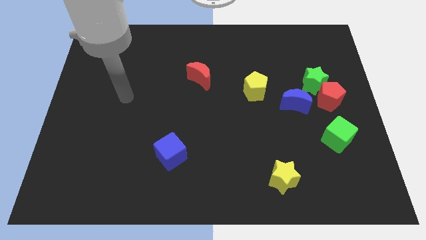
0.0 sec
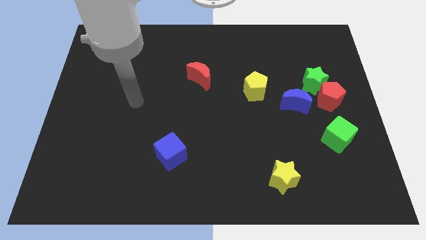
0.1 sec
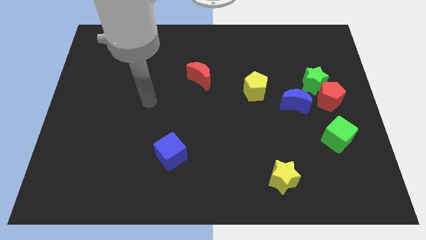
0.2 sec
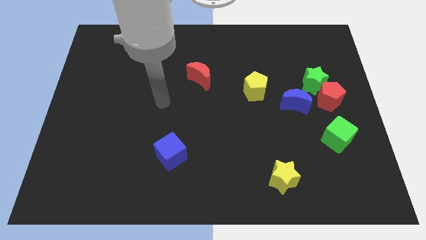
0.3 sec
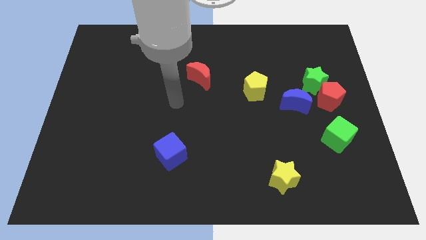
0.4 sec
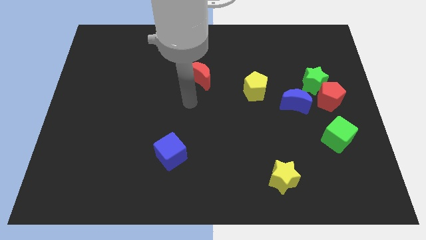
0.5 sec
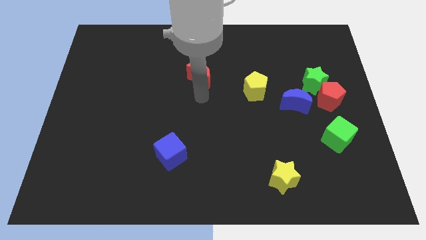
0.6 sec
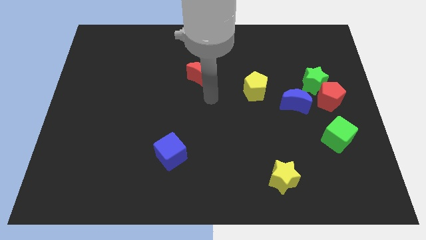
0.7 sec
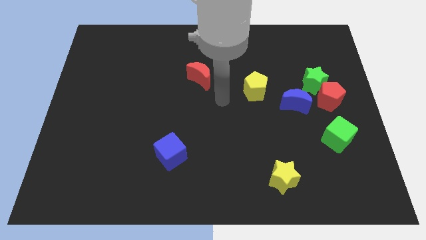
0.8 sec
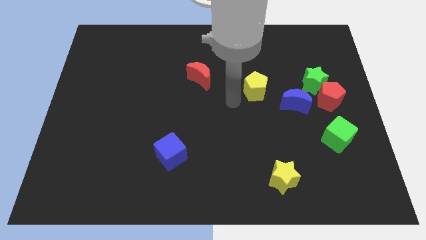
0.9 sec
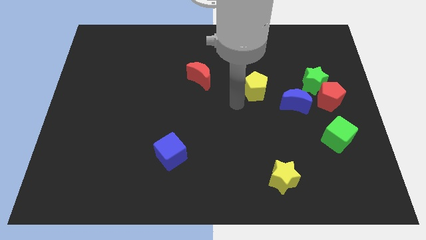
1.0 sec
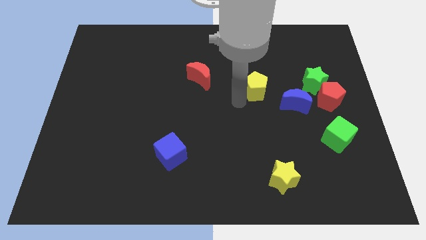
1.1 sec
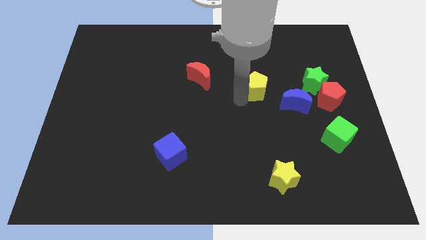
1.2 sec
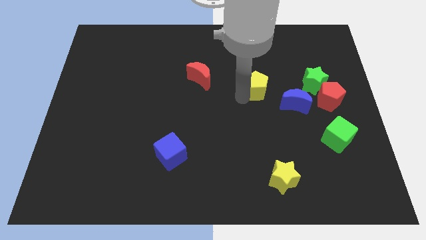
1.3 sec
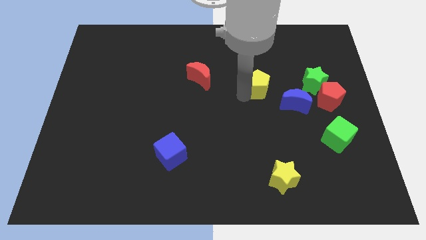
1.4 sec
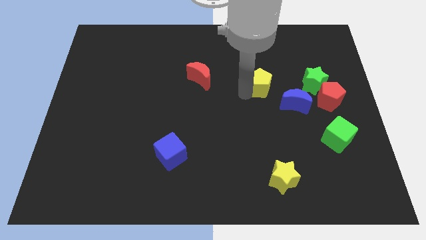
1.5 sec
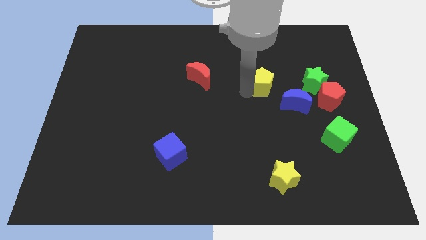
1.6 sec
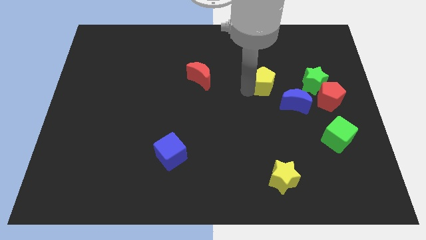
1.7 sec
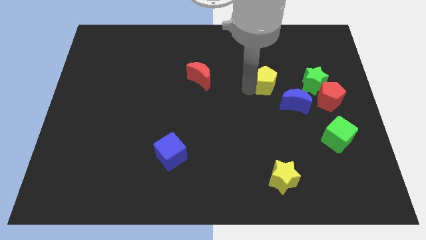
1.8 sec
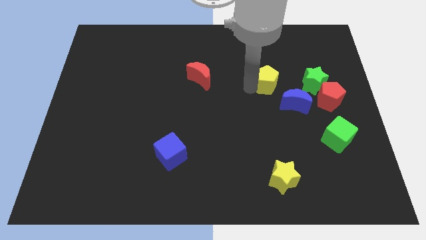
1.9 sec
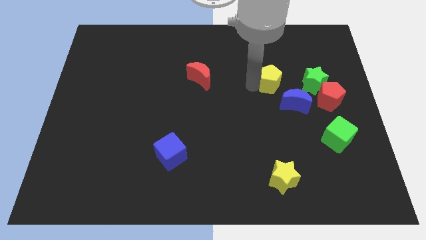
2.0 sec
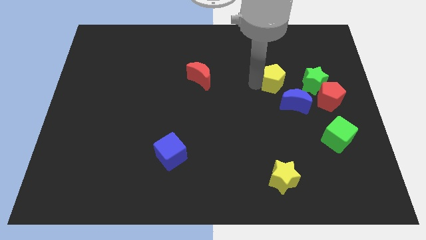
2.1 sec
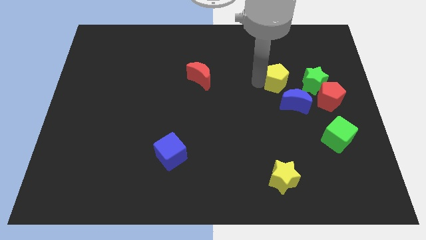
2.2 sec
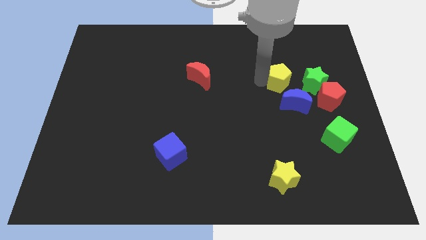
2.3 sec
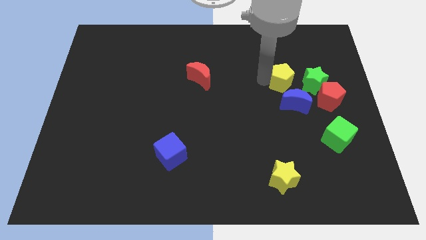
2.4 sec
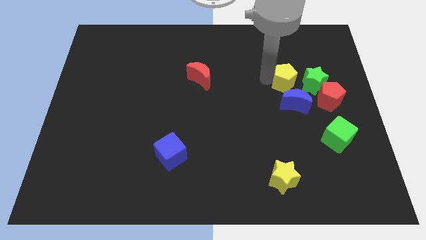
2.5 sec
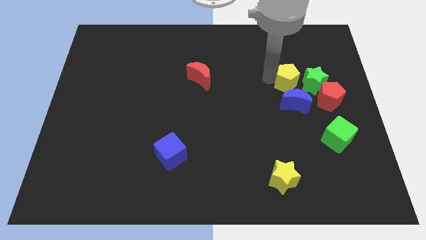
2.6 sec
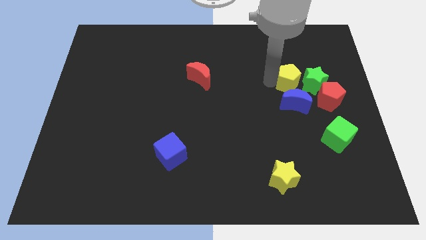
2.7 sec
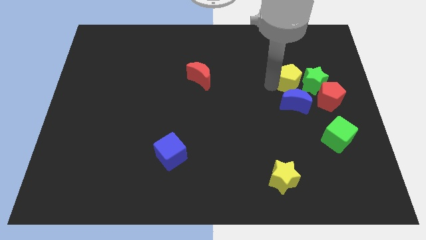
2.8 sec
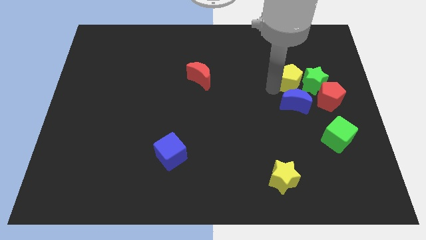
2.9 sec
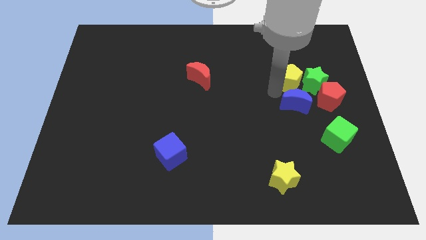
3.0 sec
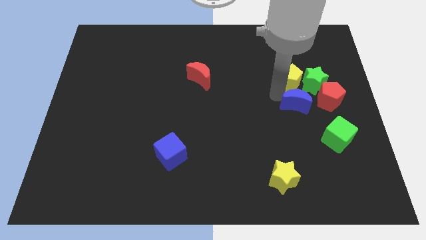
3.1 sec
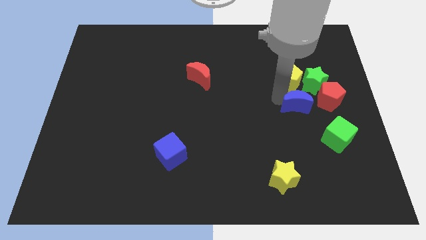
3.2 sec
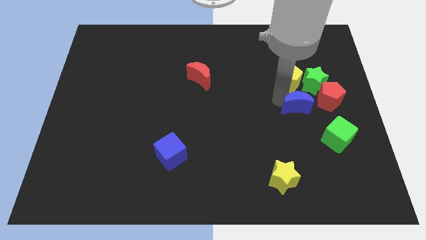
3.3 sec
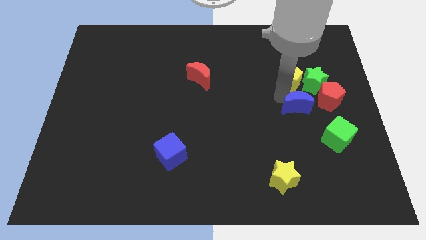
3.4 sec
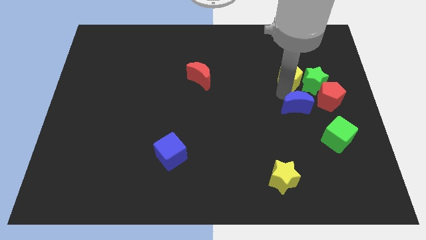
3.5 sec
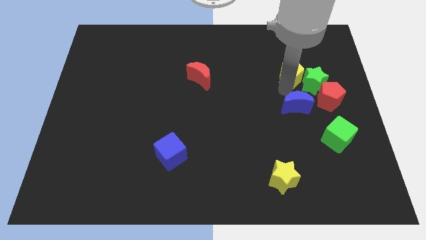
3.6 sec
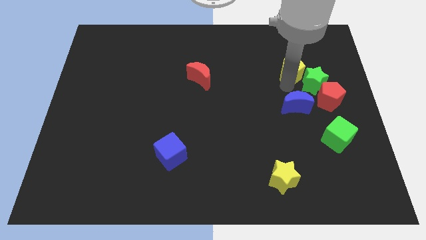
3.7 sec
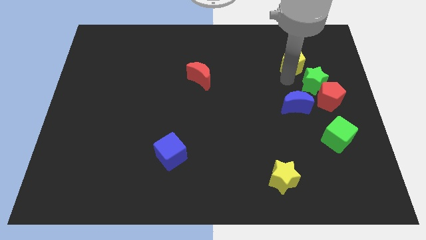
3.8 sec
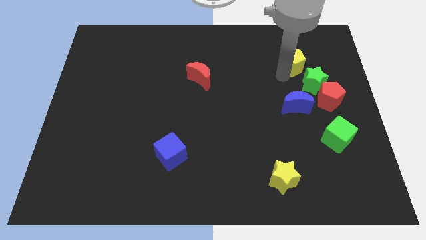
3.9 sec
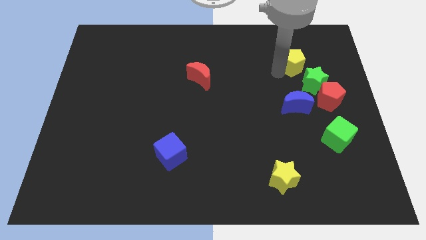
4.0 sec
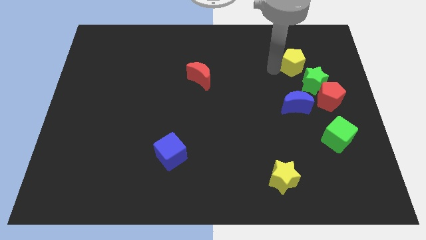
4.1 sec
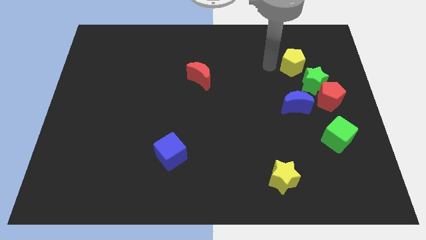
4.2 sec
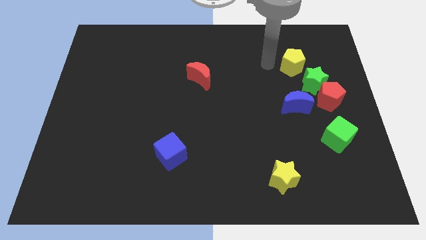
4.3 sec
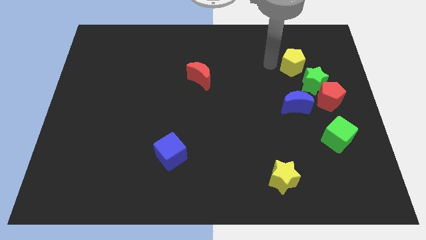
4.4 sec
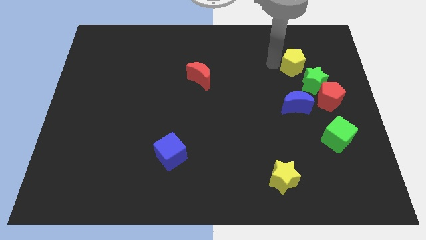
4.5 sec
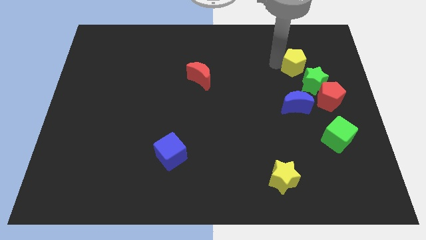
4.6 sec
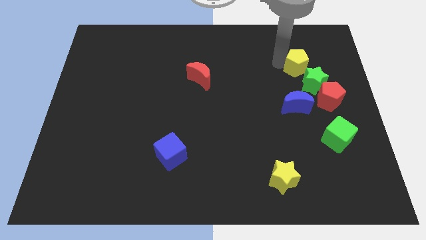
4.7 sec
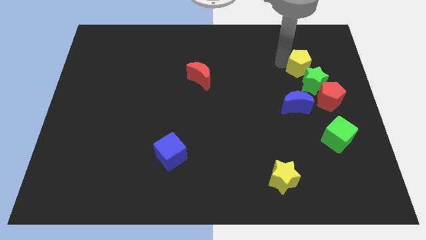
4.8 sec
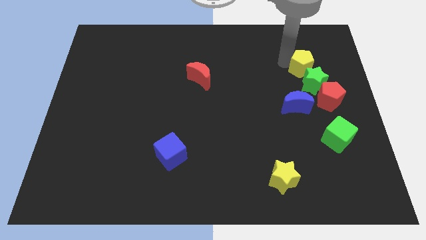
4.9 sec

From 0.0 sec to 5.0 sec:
move the yellow pentagon to the top of the red pentagon

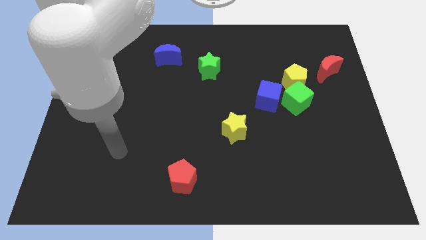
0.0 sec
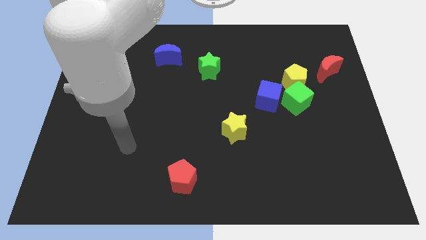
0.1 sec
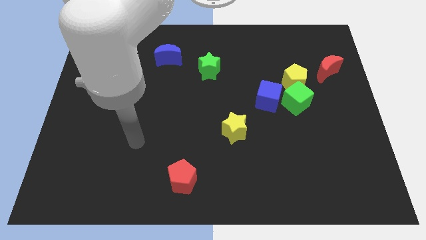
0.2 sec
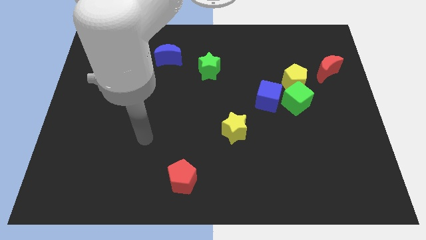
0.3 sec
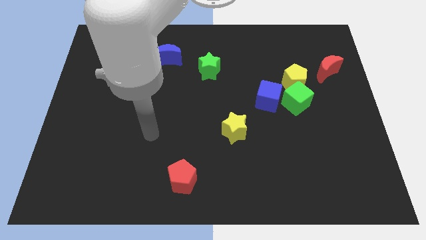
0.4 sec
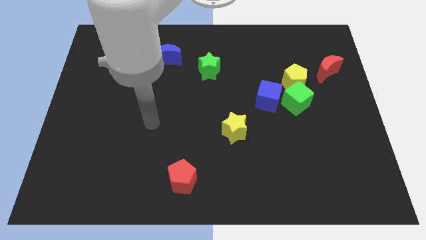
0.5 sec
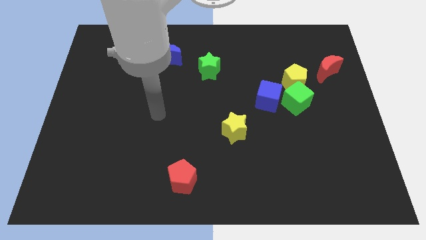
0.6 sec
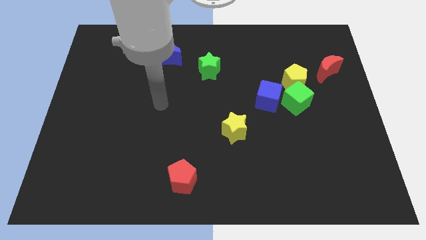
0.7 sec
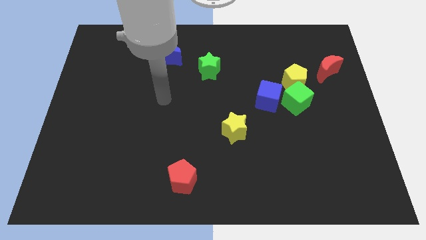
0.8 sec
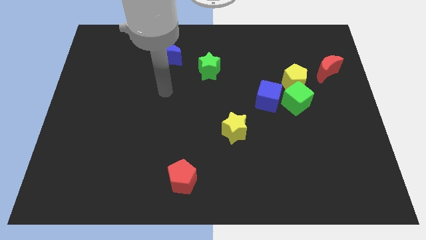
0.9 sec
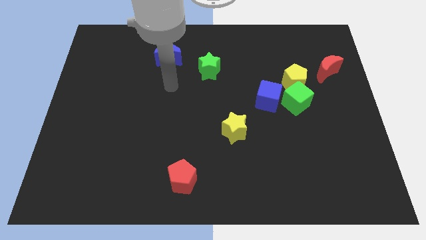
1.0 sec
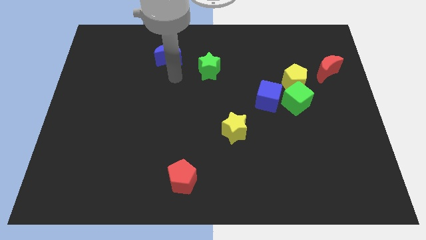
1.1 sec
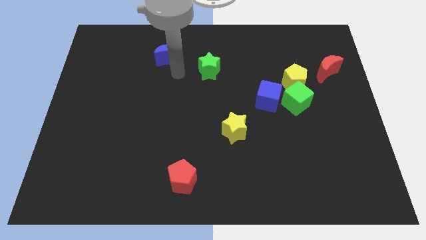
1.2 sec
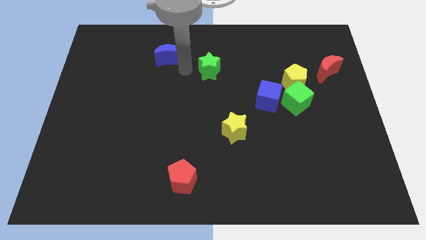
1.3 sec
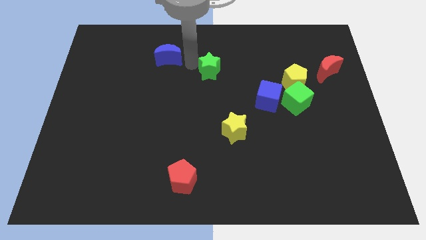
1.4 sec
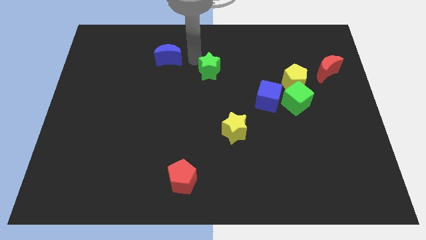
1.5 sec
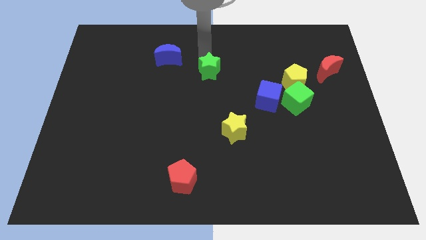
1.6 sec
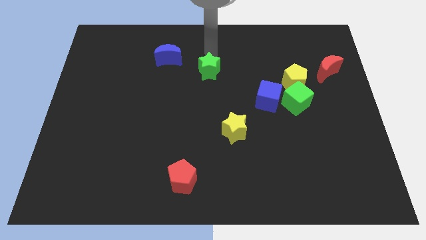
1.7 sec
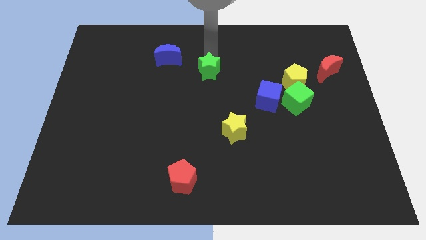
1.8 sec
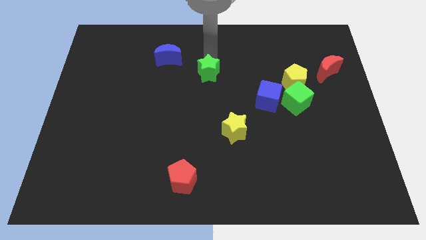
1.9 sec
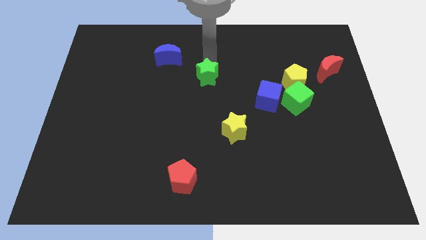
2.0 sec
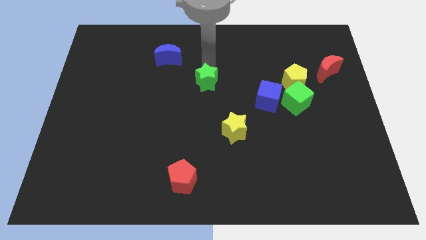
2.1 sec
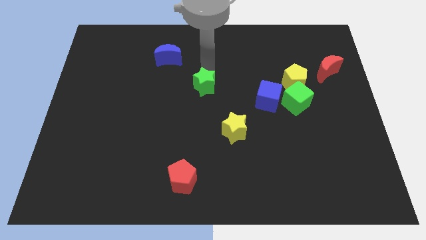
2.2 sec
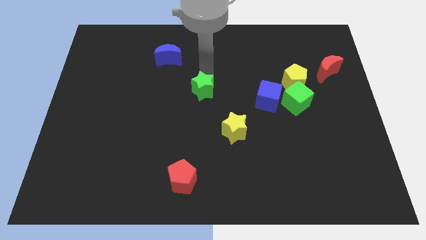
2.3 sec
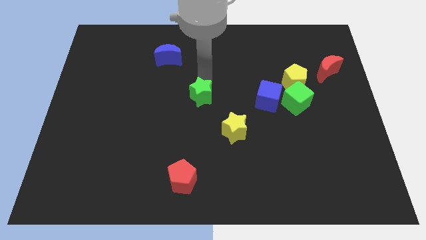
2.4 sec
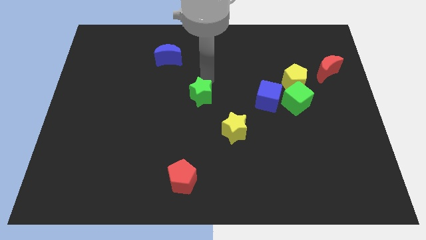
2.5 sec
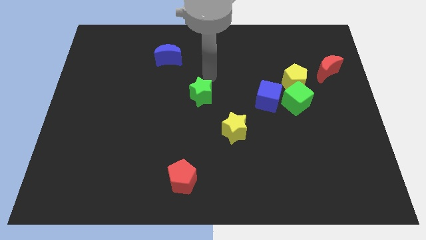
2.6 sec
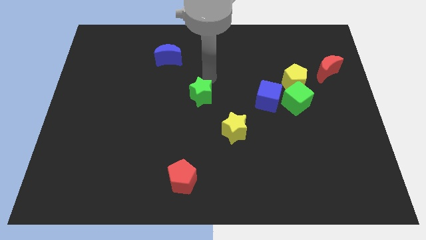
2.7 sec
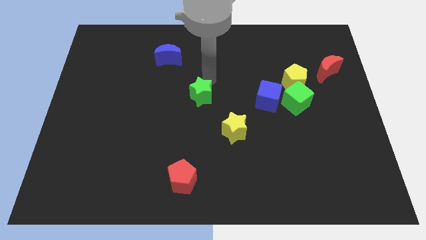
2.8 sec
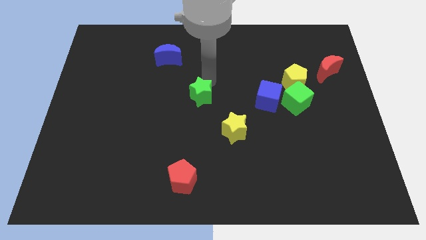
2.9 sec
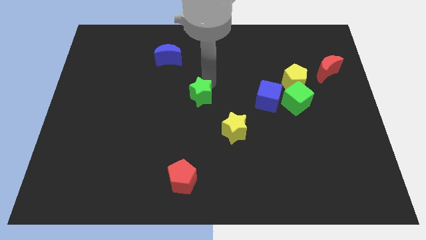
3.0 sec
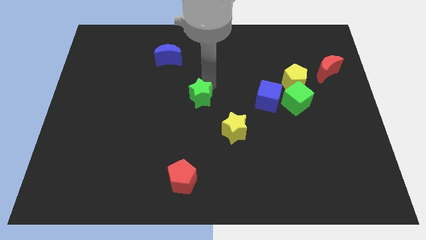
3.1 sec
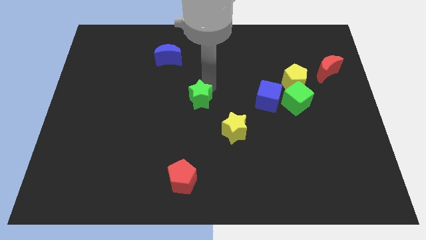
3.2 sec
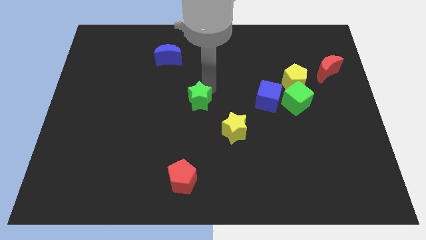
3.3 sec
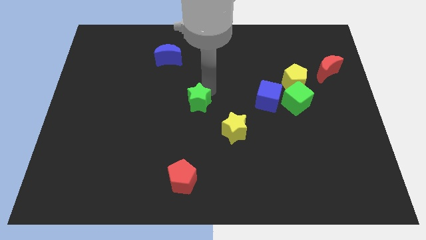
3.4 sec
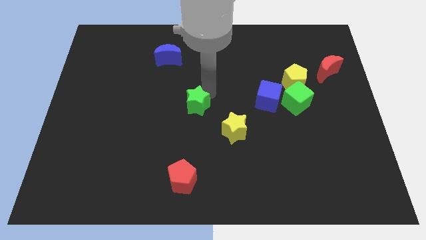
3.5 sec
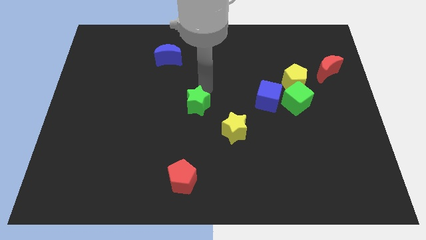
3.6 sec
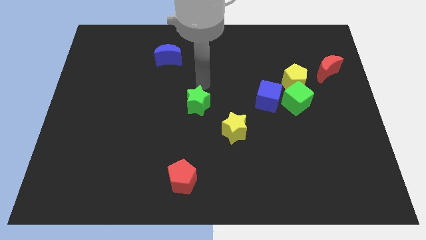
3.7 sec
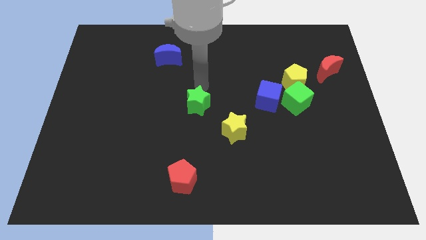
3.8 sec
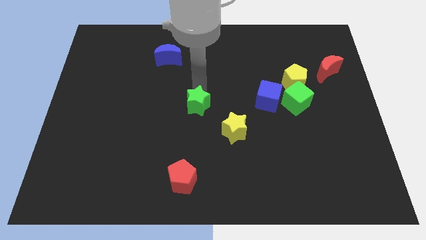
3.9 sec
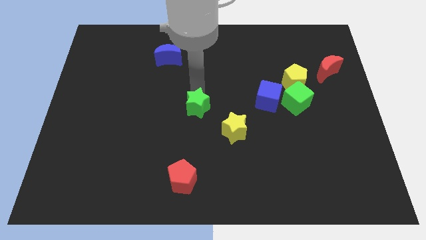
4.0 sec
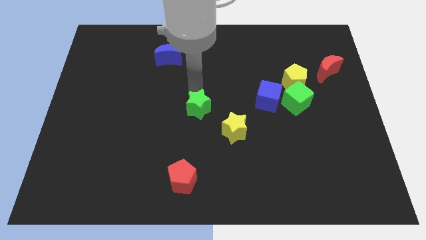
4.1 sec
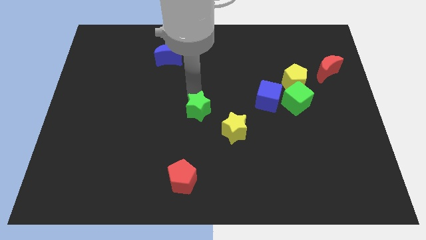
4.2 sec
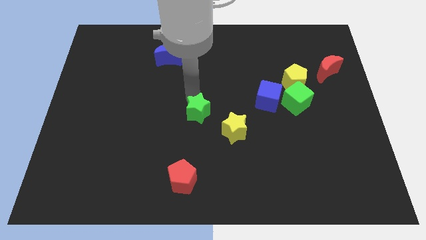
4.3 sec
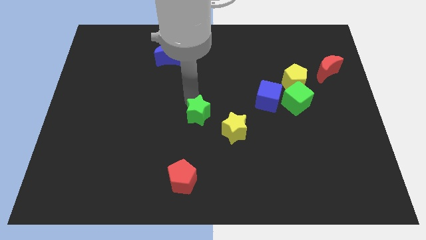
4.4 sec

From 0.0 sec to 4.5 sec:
move the green star to the left of the yellow star
